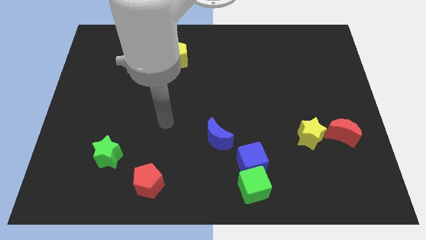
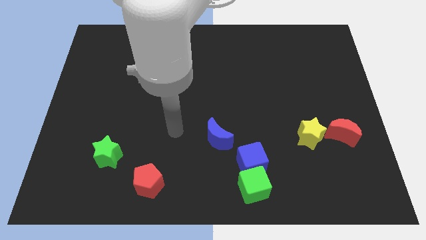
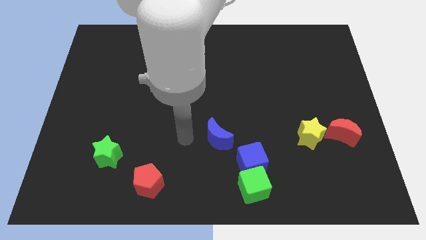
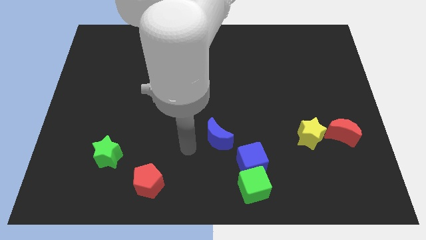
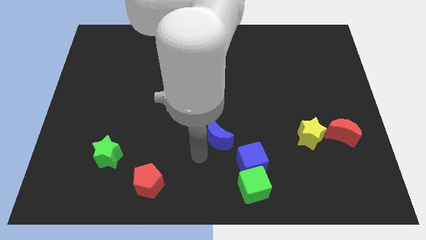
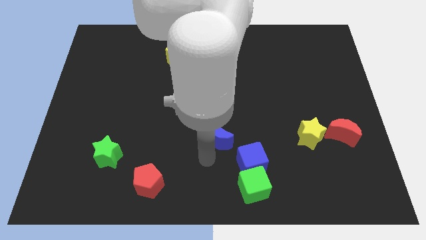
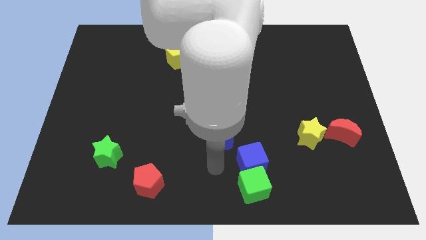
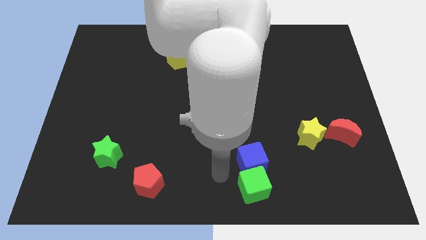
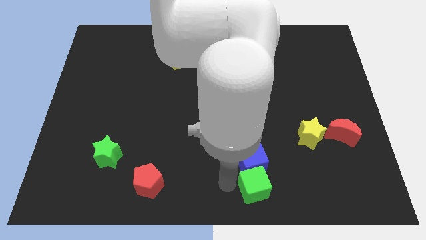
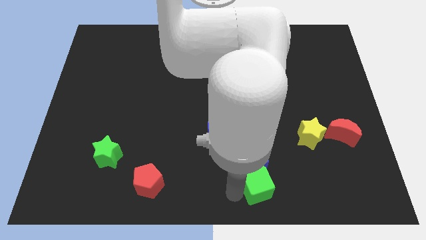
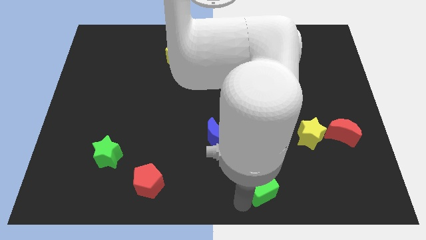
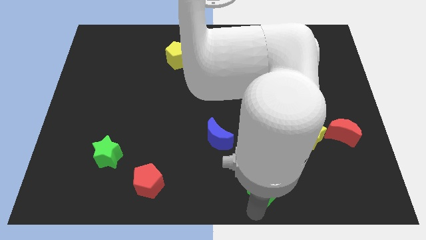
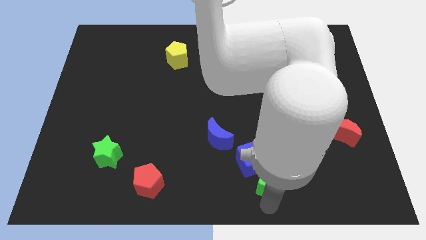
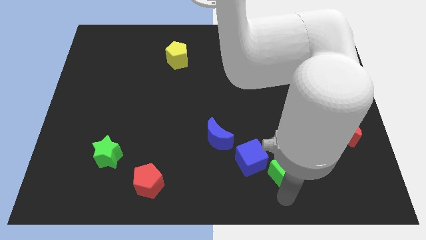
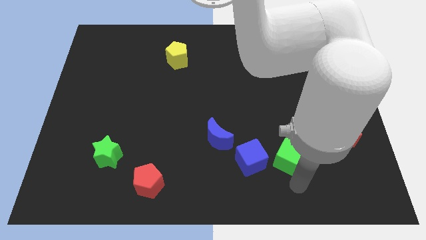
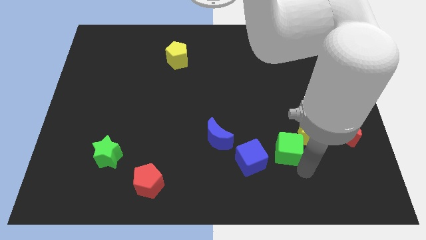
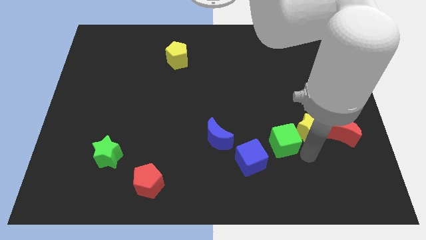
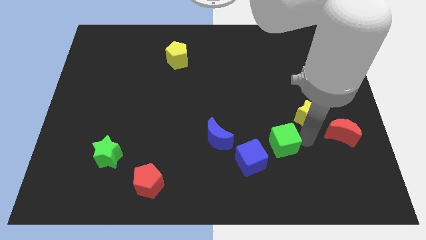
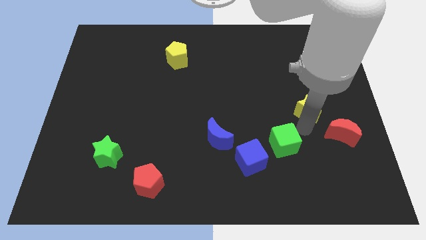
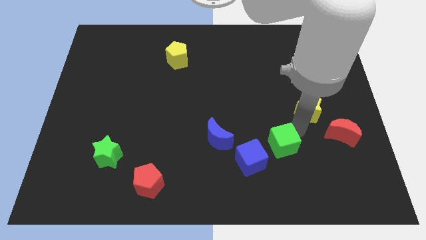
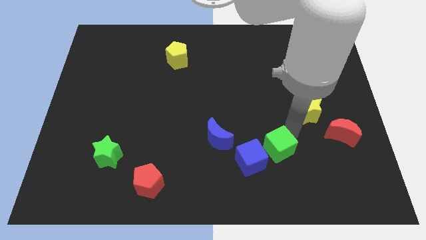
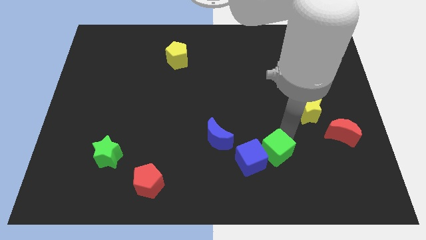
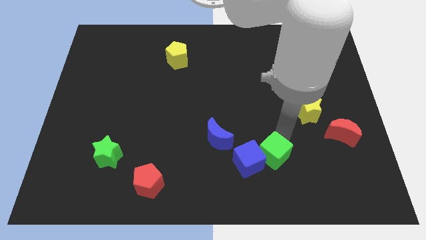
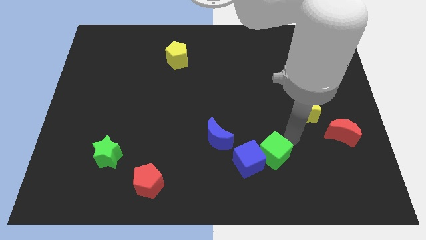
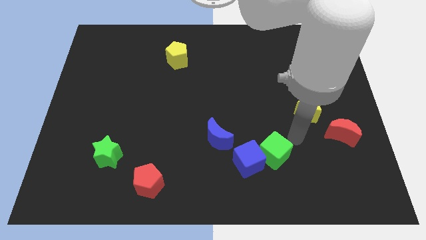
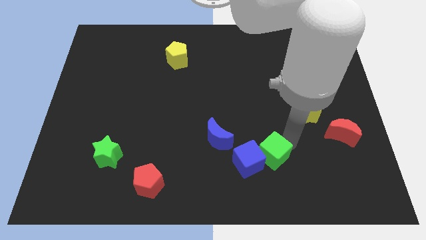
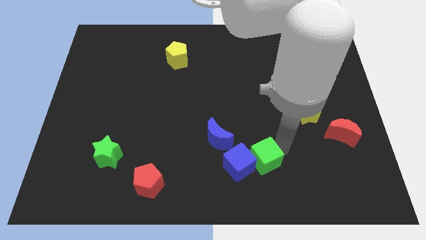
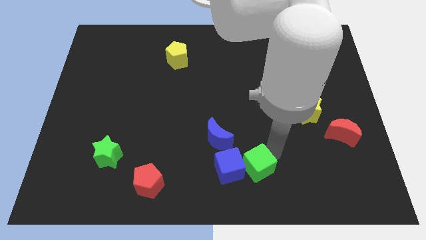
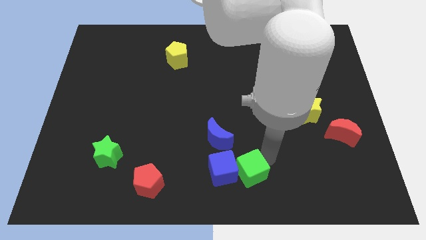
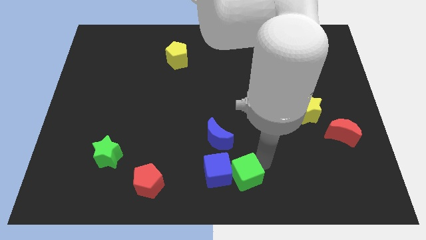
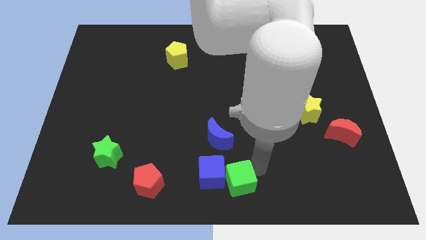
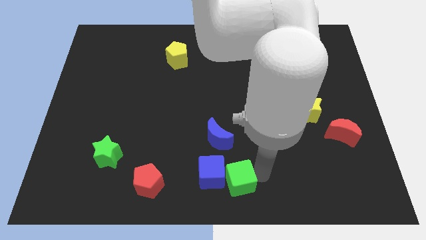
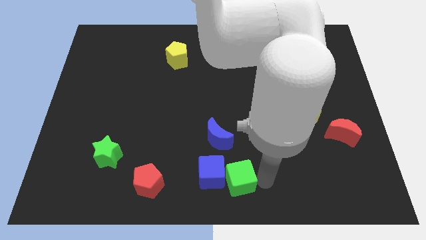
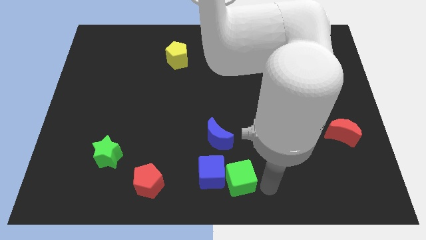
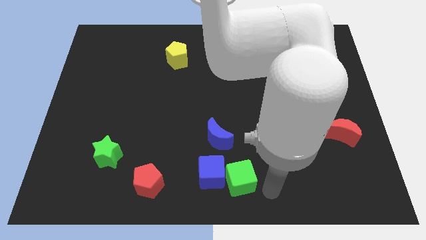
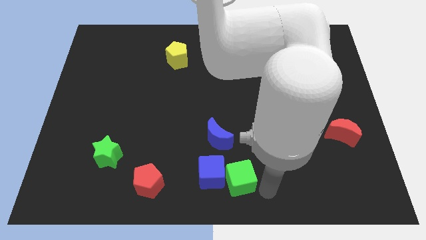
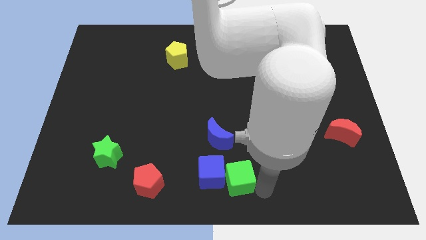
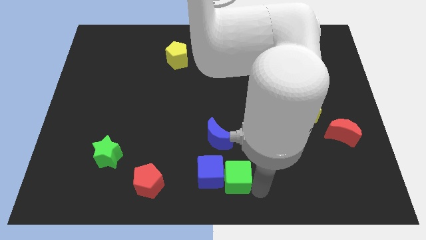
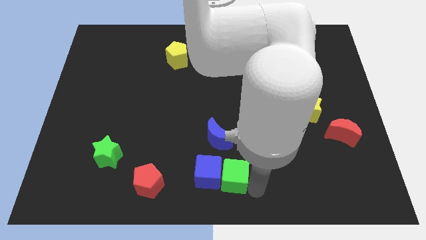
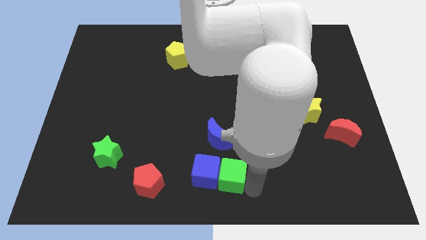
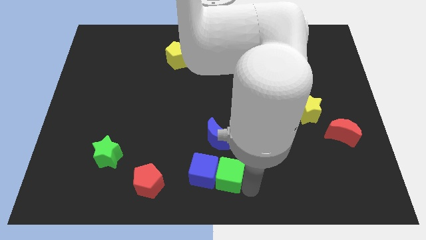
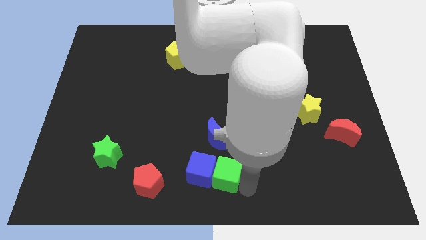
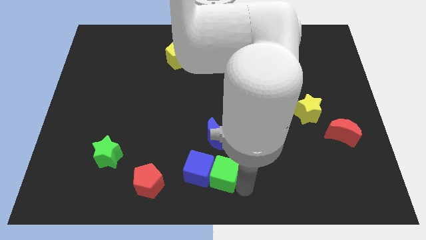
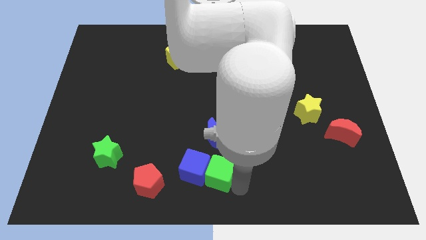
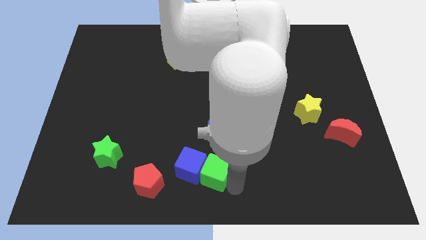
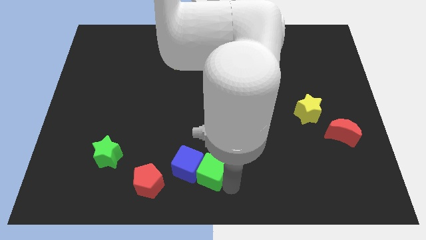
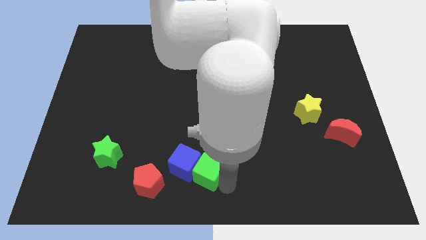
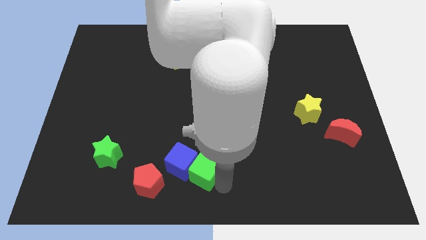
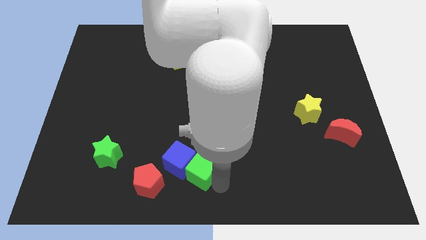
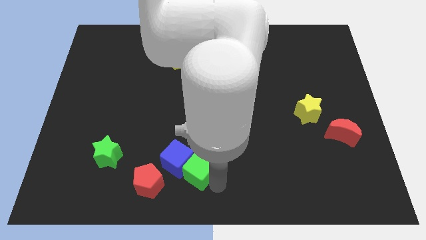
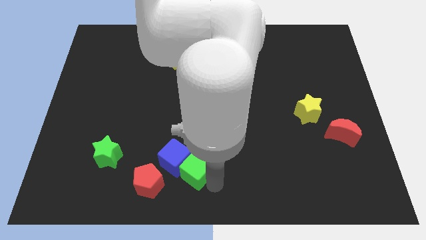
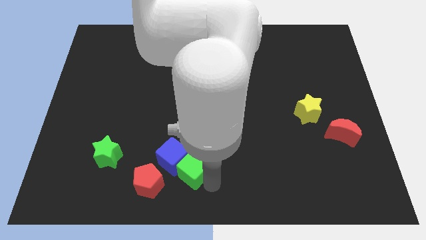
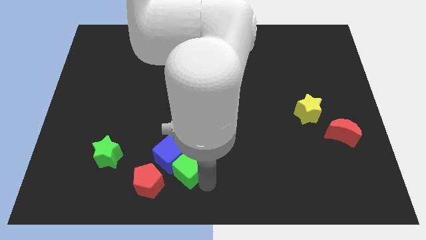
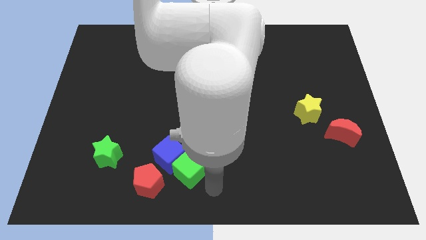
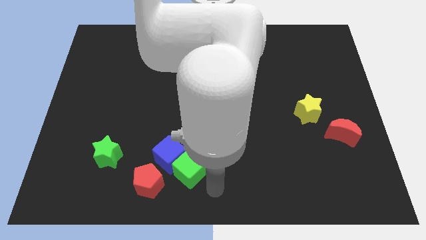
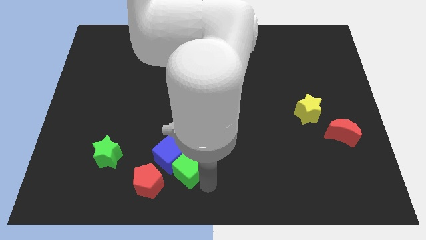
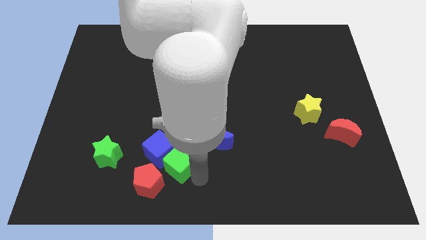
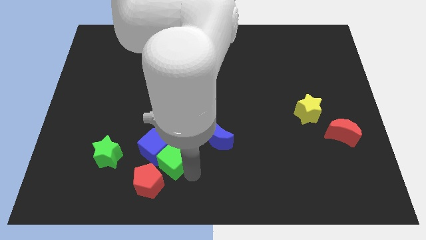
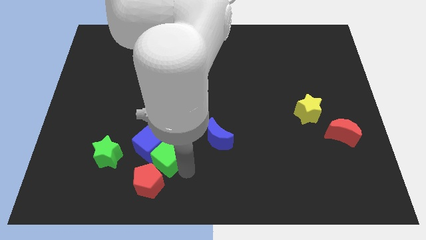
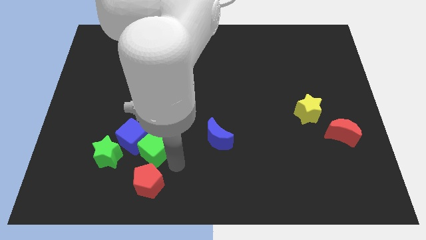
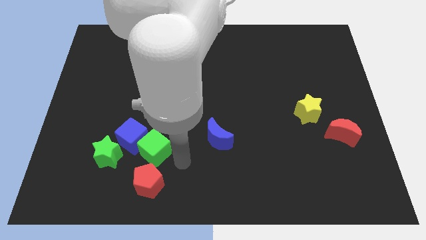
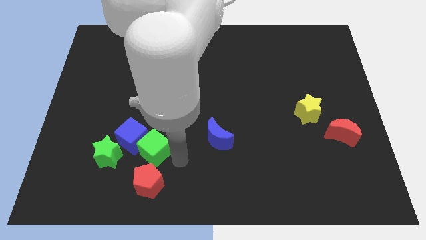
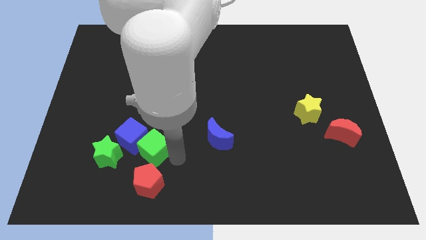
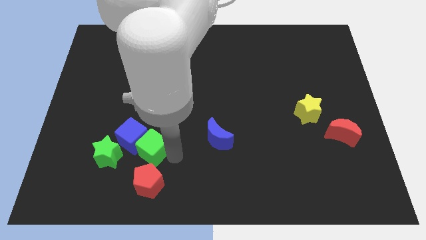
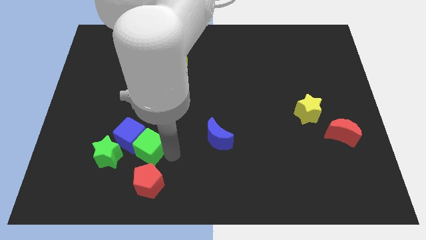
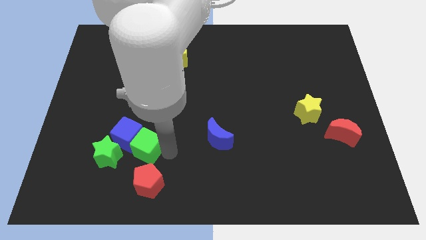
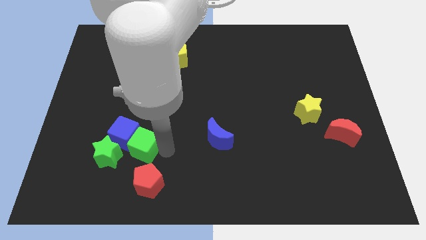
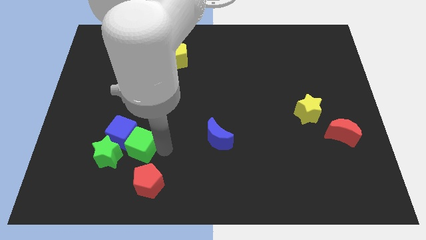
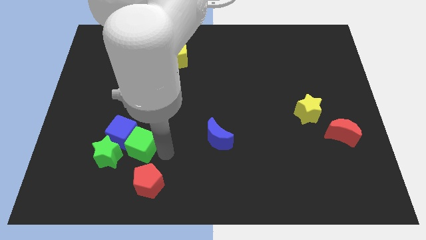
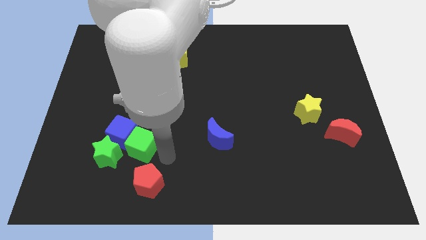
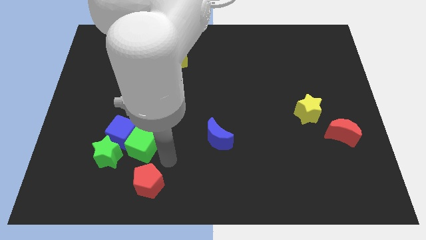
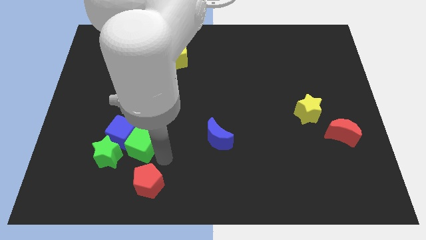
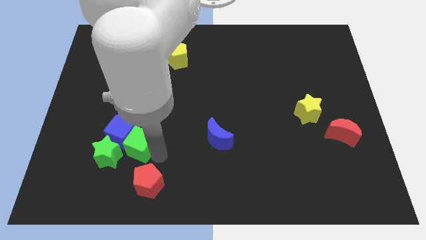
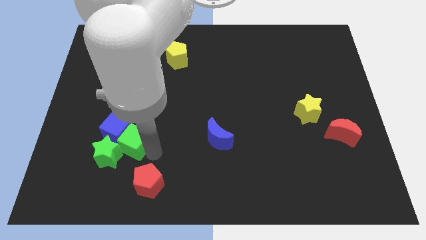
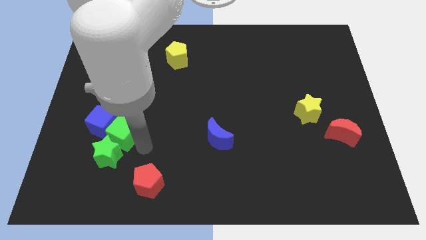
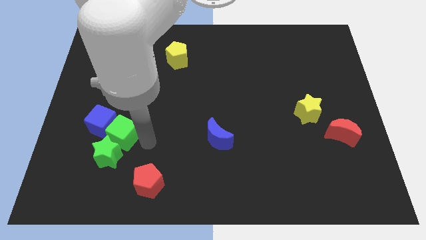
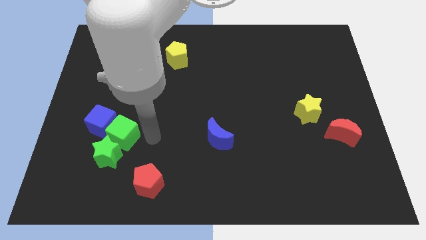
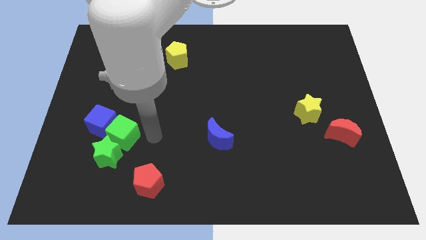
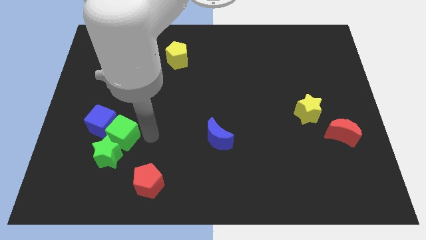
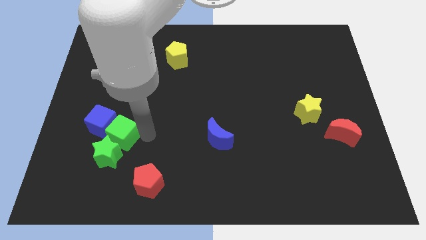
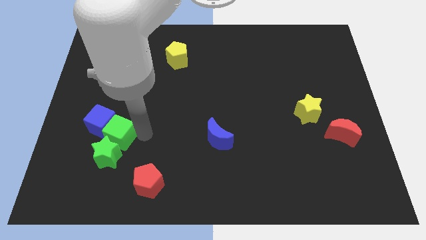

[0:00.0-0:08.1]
push the green cube to the top left of the green star

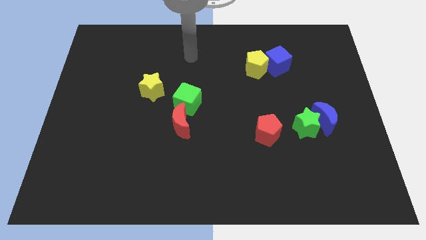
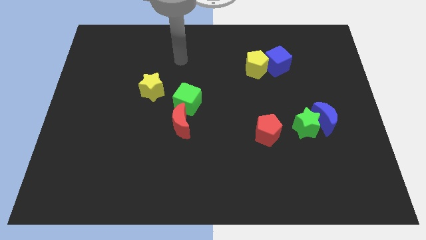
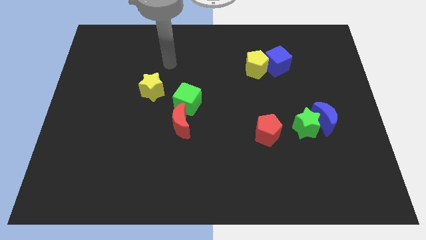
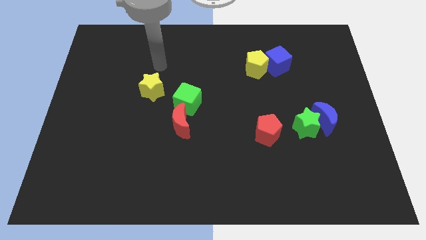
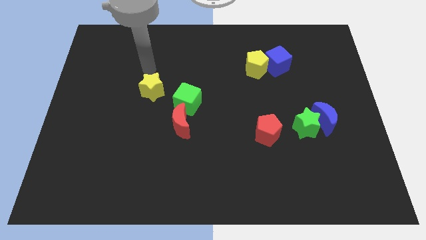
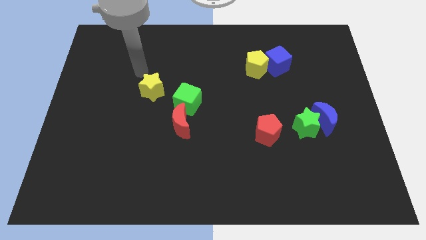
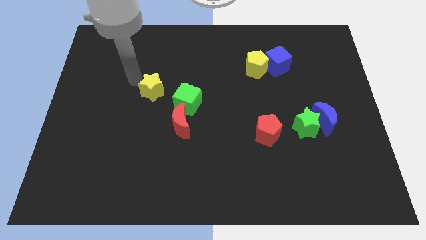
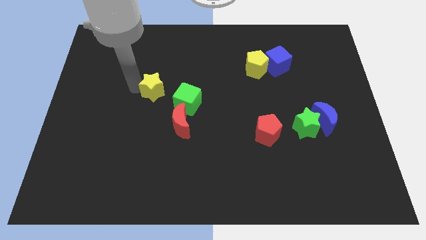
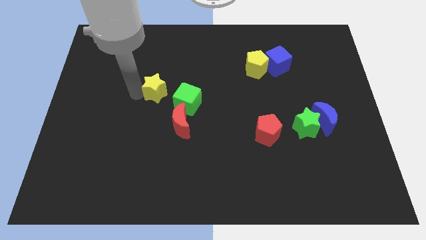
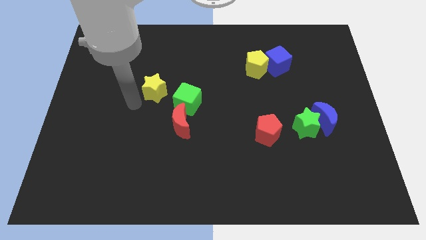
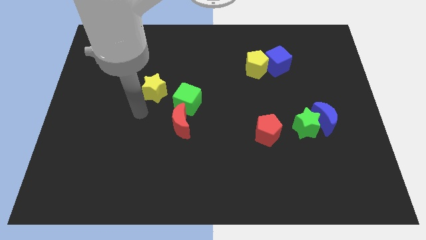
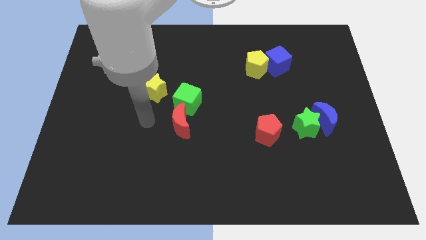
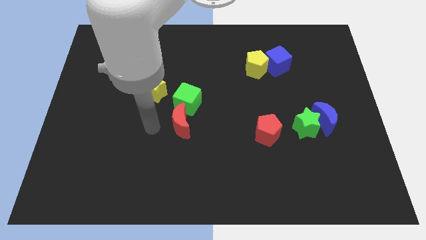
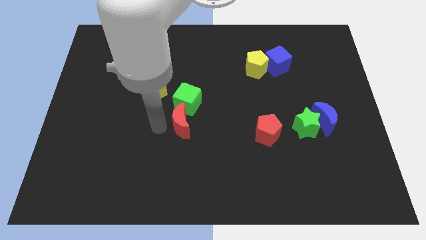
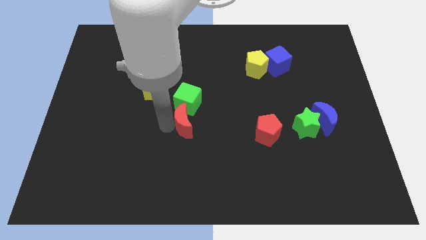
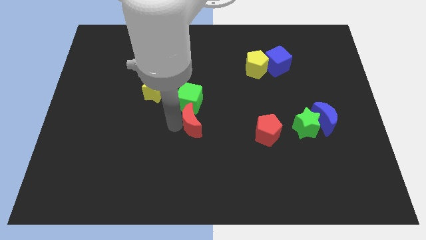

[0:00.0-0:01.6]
put the red moon to the bottom right side of the green cube
